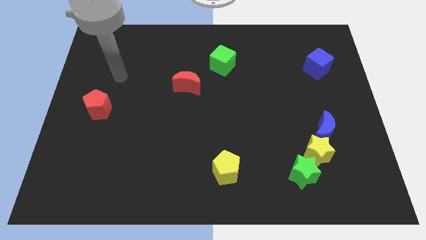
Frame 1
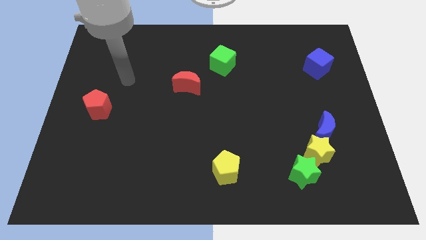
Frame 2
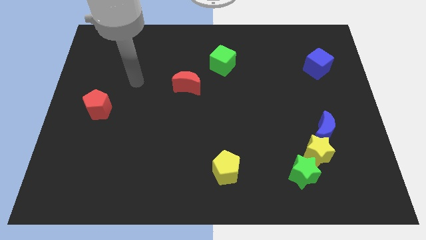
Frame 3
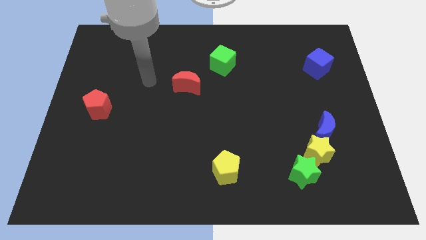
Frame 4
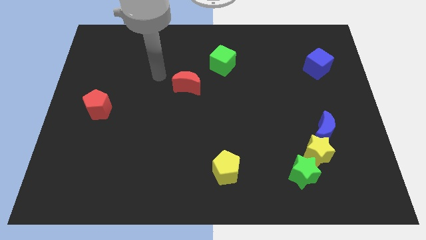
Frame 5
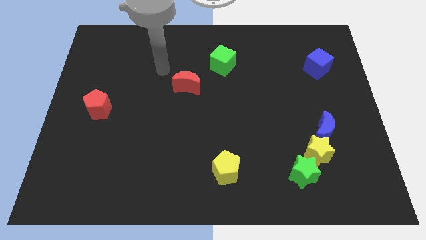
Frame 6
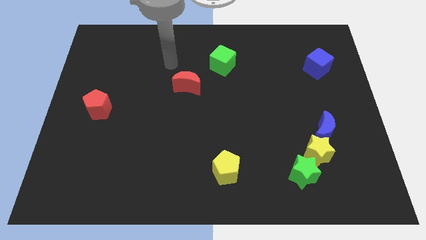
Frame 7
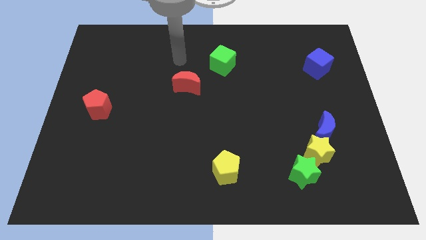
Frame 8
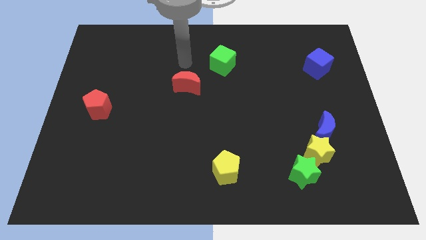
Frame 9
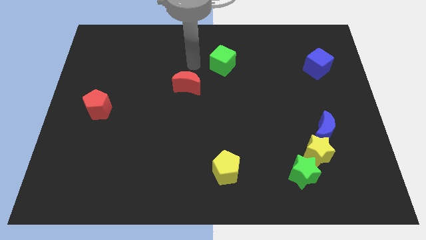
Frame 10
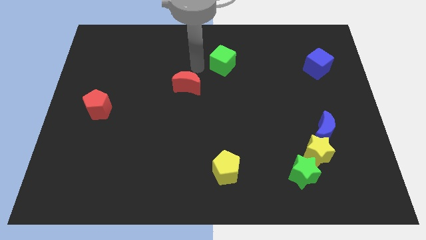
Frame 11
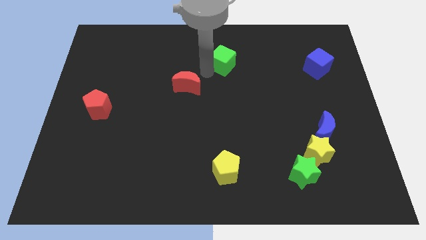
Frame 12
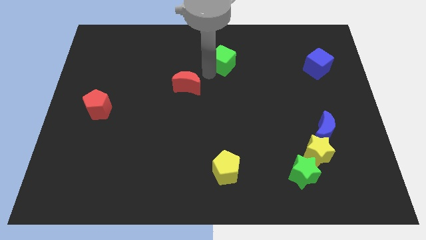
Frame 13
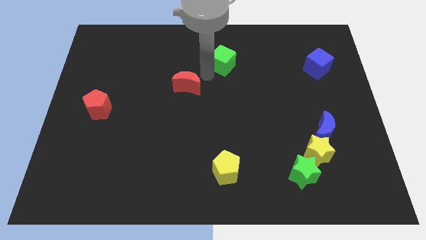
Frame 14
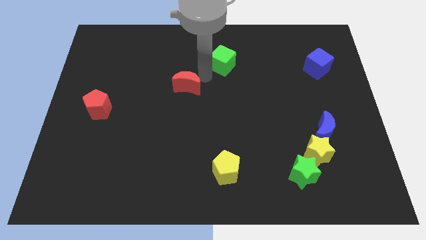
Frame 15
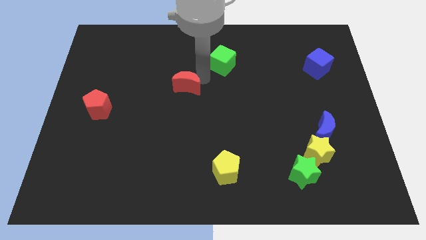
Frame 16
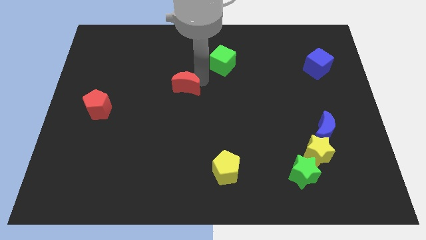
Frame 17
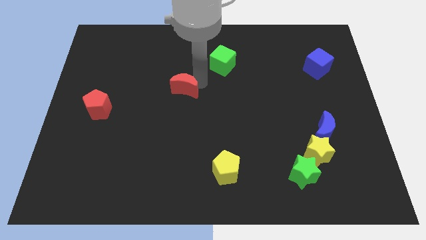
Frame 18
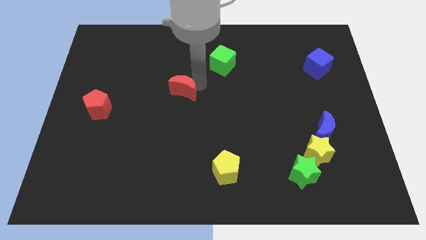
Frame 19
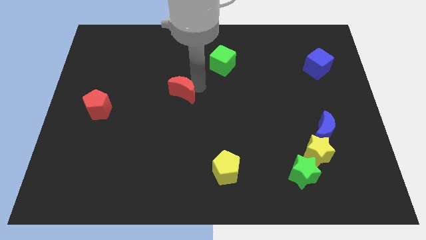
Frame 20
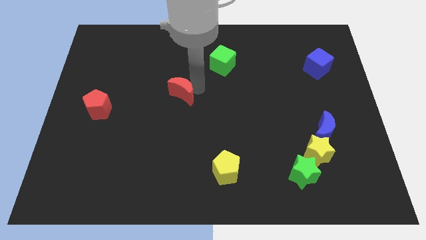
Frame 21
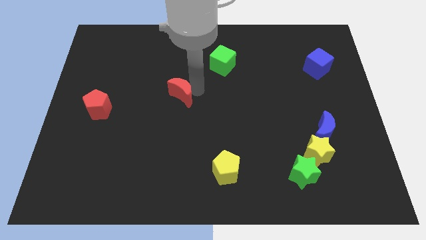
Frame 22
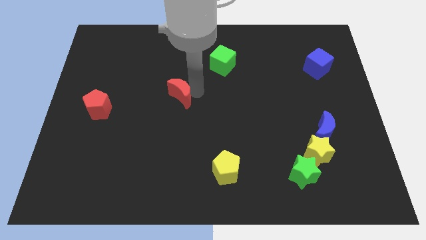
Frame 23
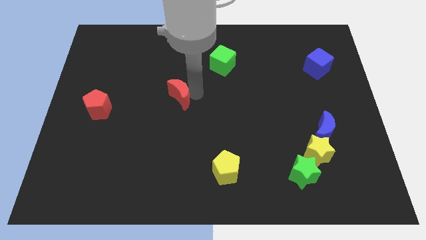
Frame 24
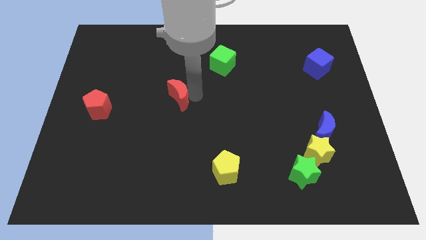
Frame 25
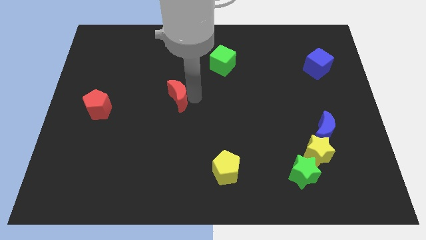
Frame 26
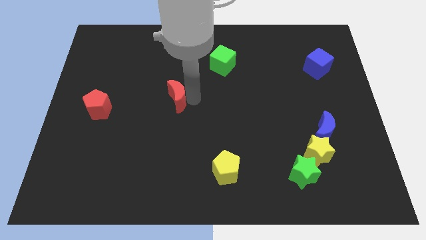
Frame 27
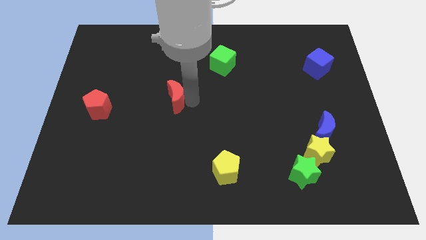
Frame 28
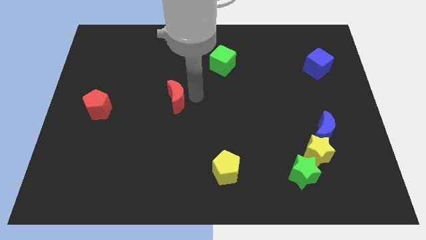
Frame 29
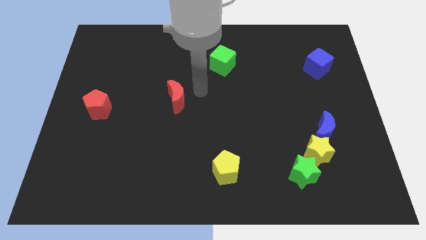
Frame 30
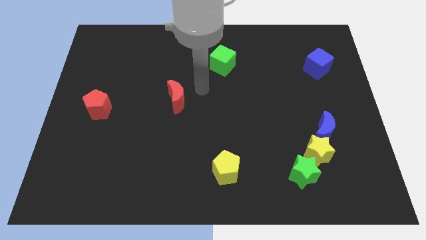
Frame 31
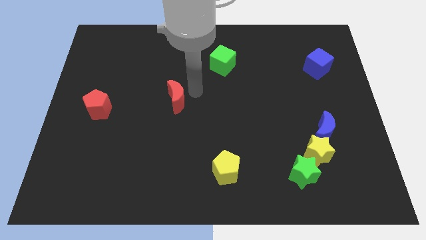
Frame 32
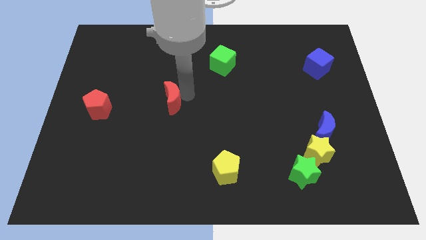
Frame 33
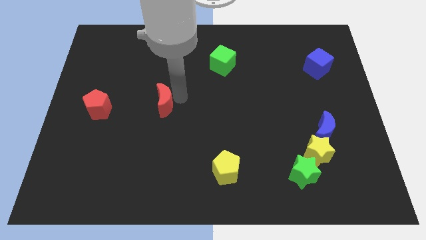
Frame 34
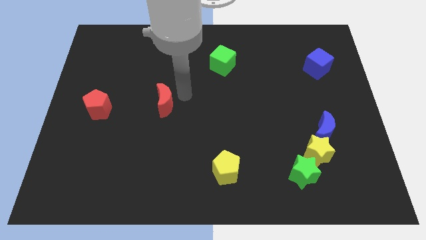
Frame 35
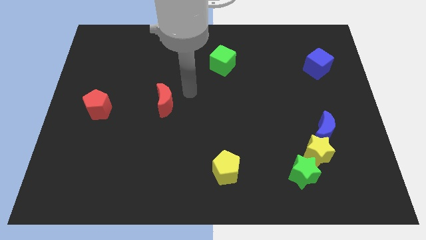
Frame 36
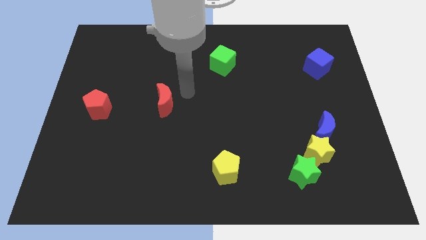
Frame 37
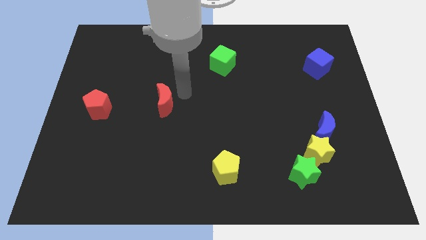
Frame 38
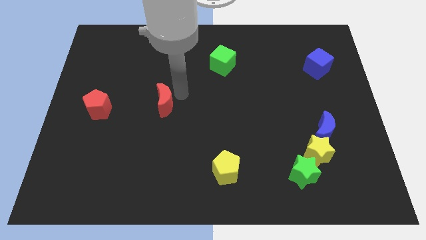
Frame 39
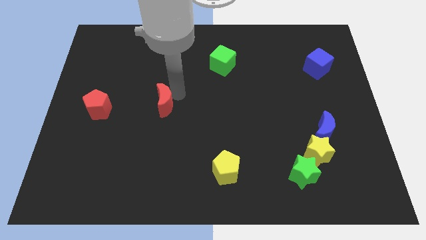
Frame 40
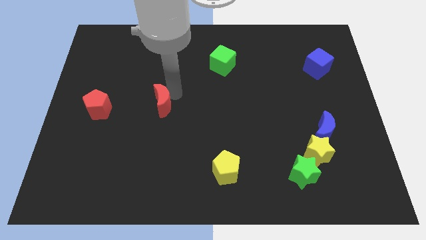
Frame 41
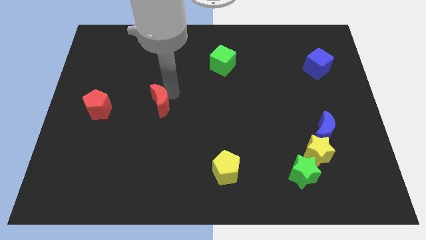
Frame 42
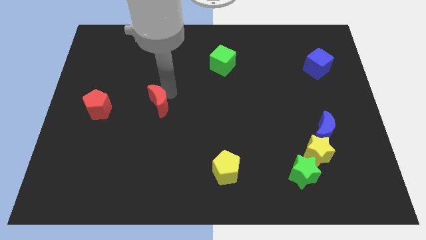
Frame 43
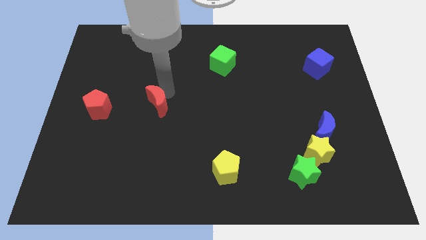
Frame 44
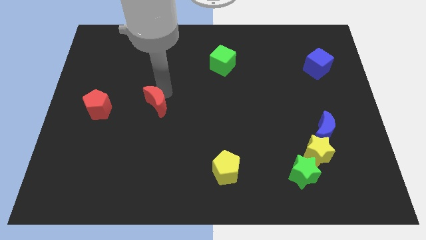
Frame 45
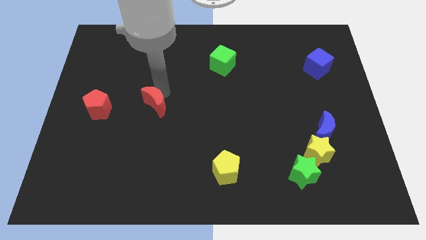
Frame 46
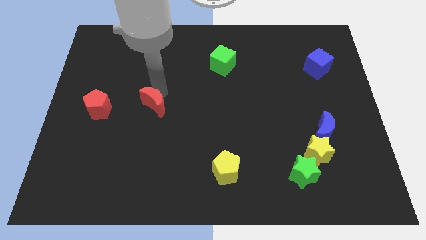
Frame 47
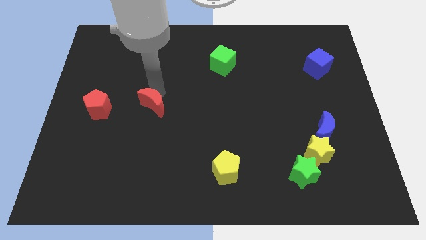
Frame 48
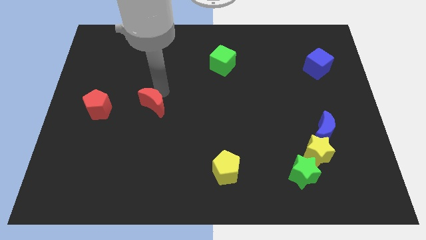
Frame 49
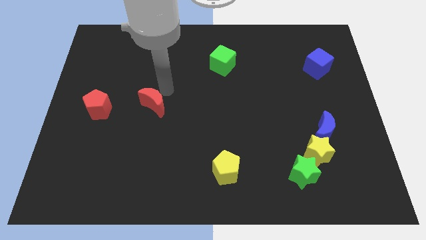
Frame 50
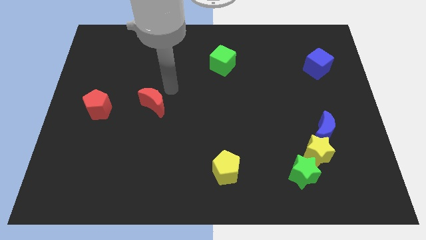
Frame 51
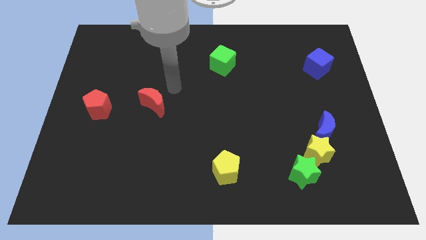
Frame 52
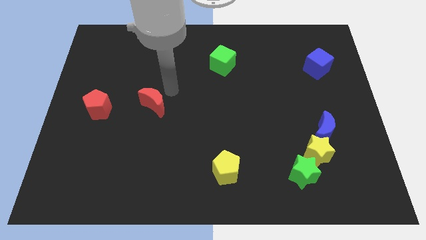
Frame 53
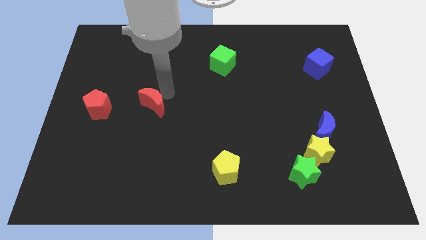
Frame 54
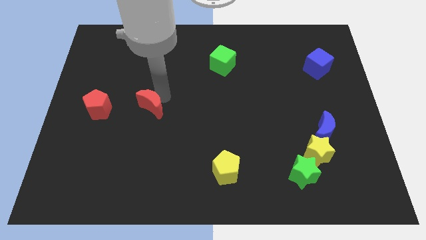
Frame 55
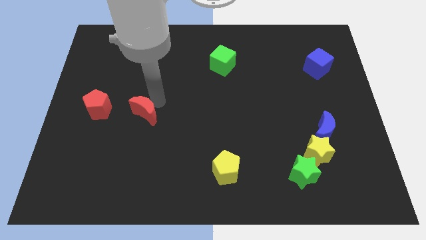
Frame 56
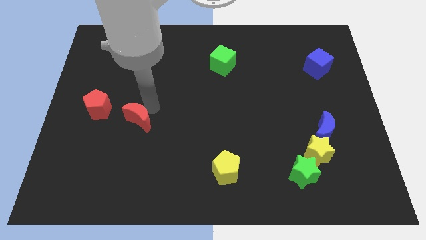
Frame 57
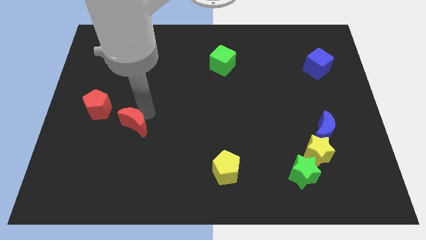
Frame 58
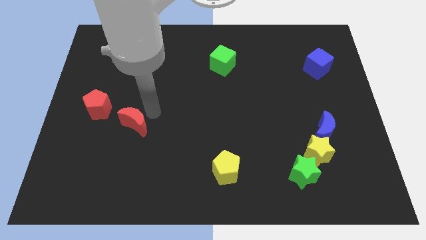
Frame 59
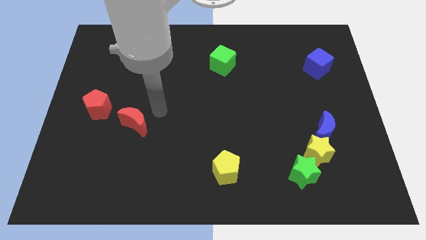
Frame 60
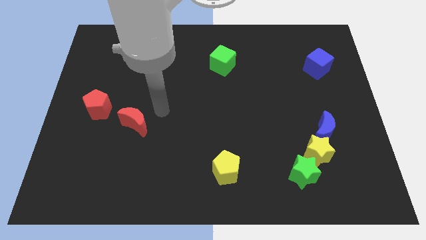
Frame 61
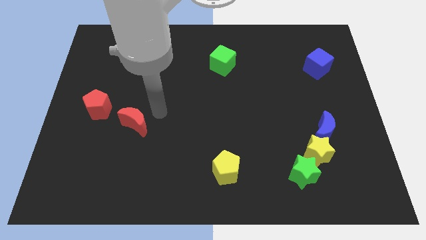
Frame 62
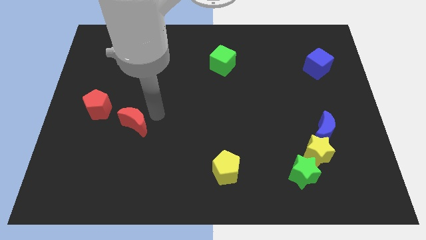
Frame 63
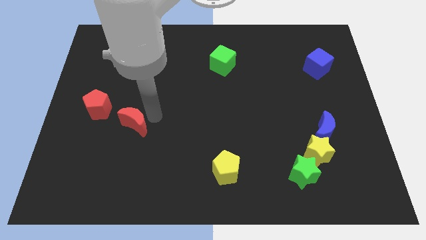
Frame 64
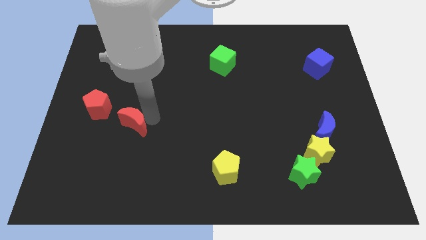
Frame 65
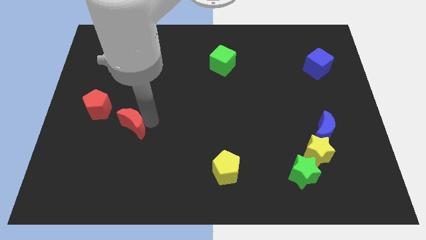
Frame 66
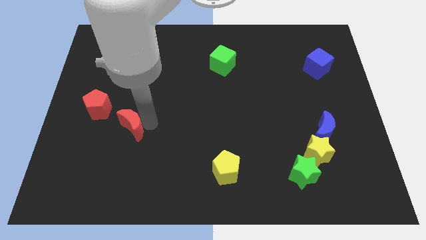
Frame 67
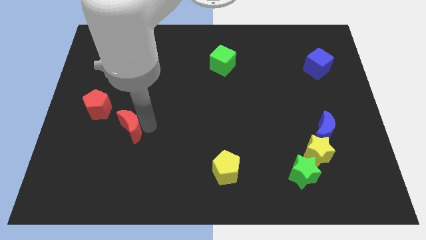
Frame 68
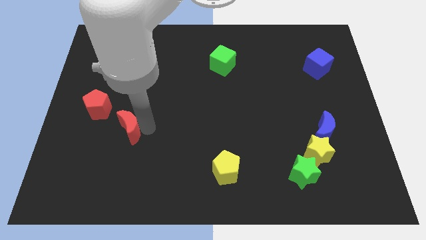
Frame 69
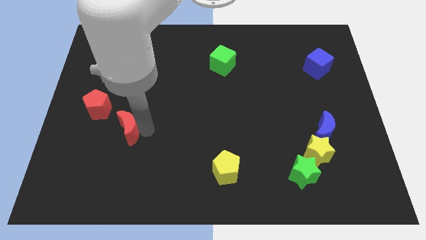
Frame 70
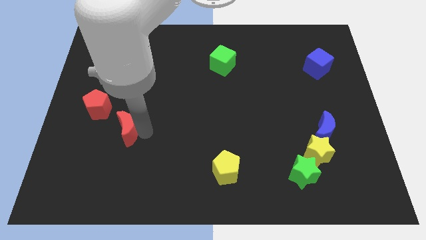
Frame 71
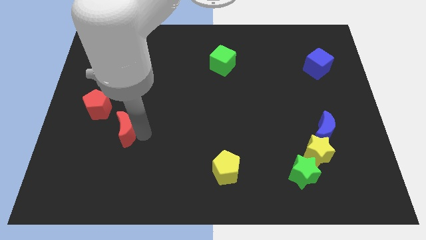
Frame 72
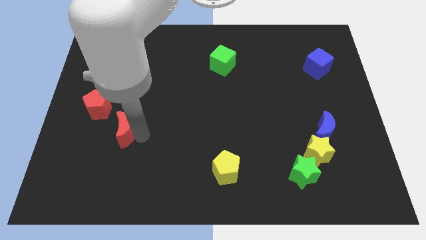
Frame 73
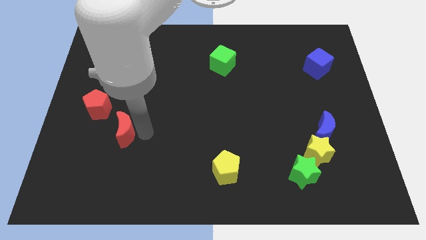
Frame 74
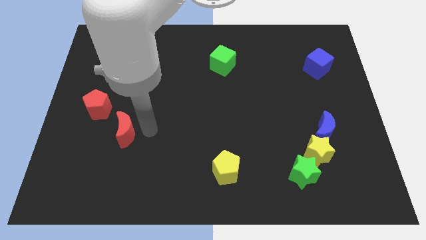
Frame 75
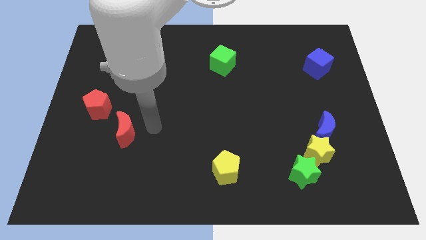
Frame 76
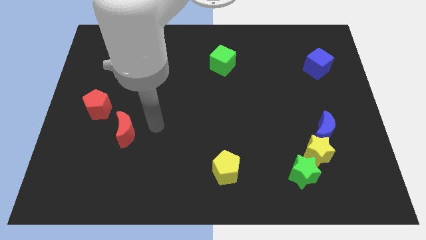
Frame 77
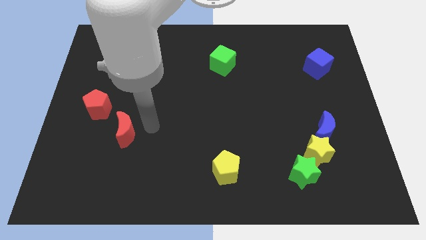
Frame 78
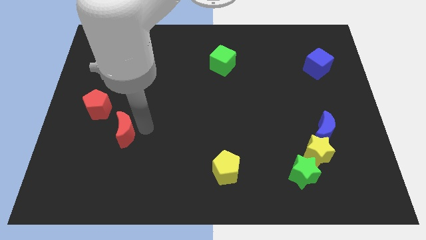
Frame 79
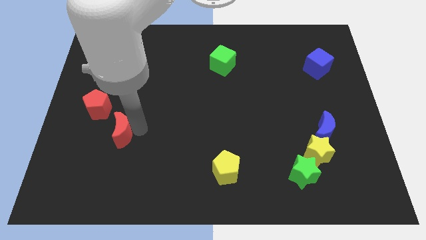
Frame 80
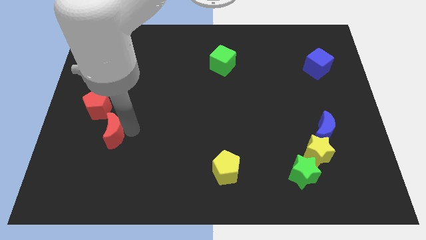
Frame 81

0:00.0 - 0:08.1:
slide the red moon to the bottom of the red pentagon
